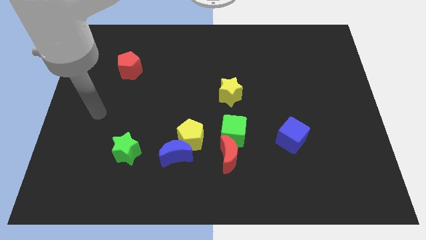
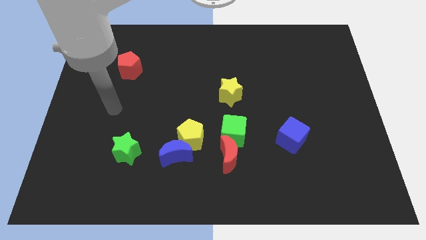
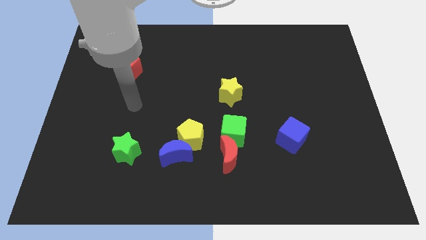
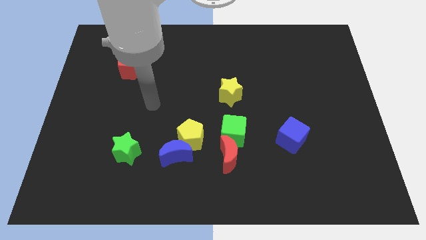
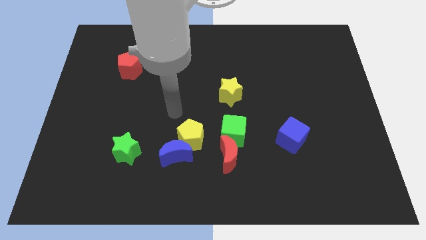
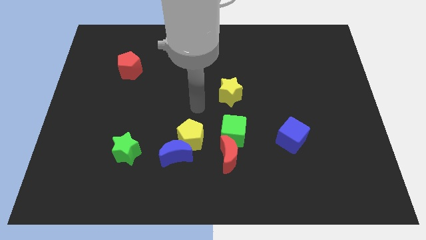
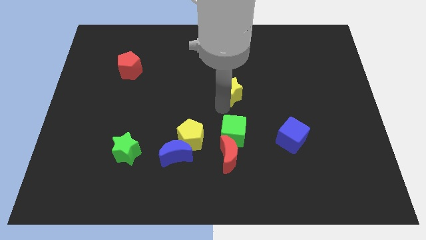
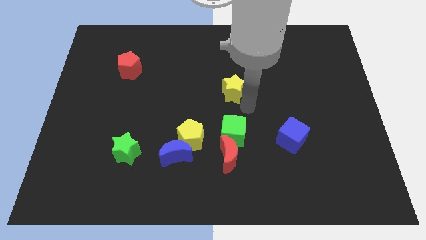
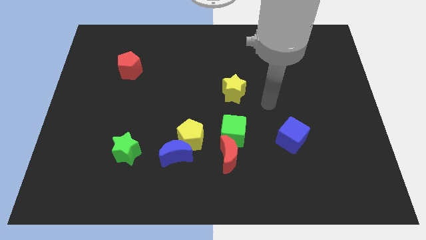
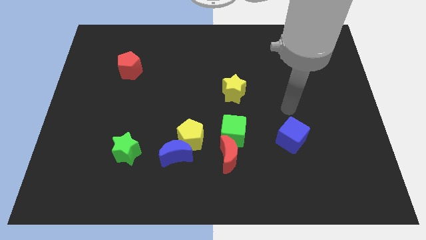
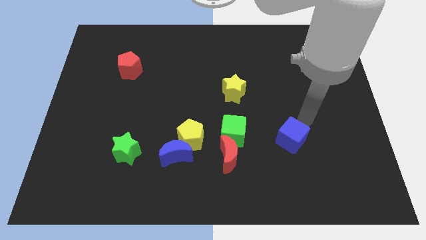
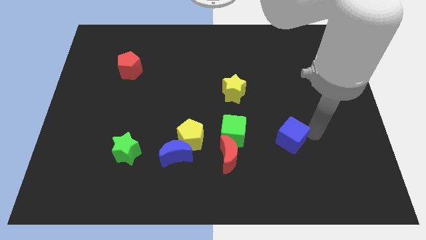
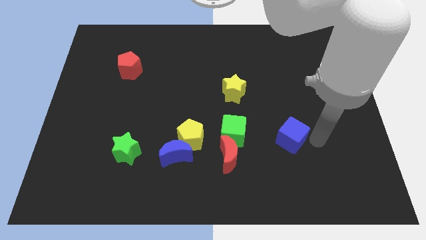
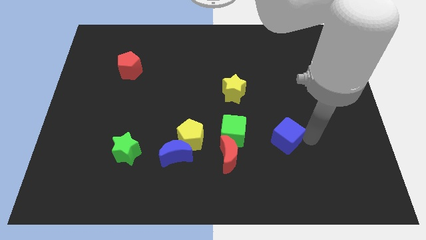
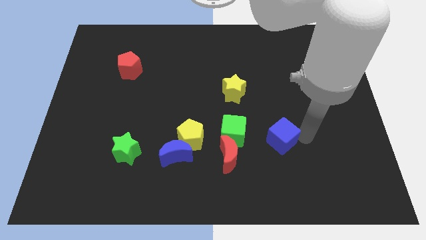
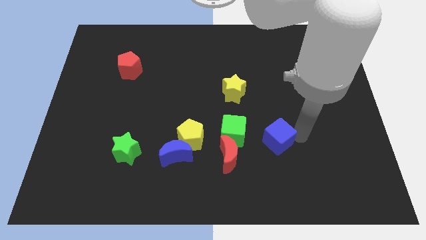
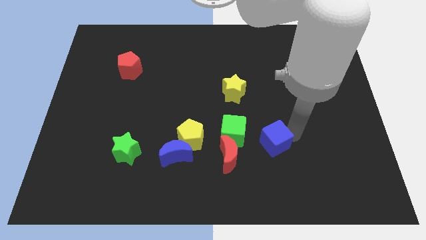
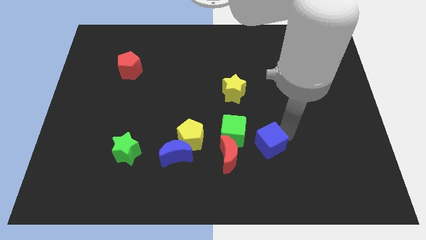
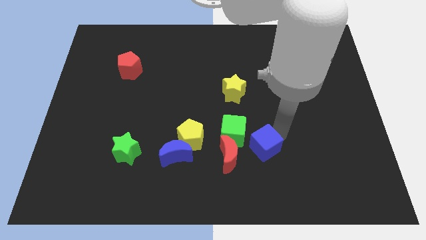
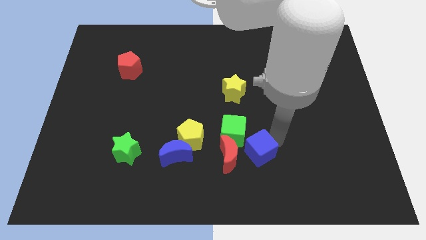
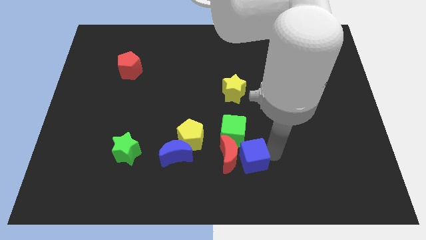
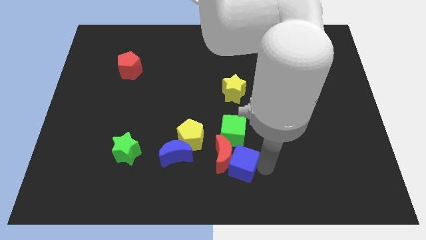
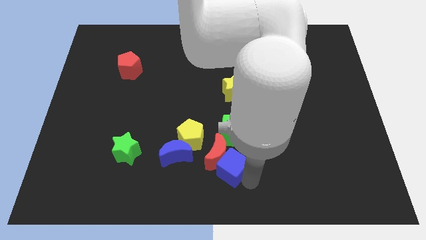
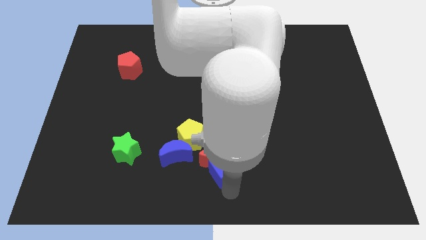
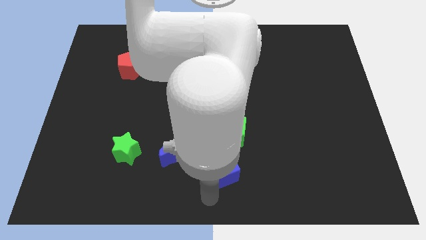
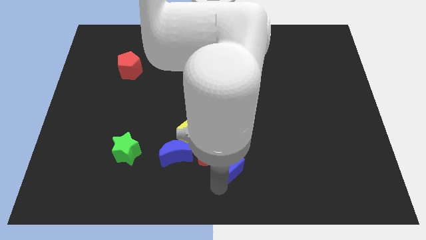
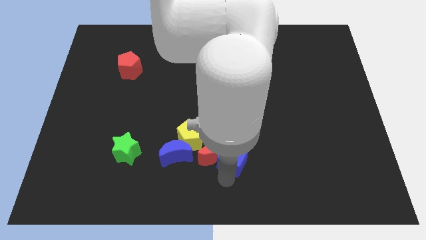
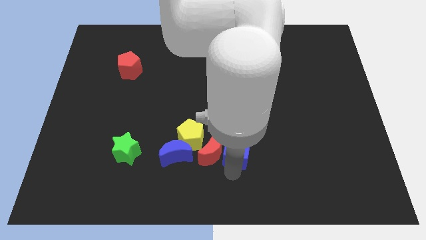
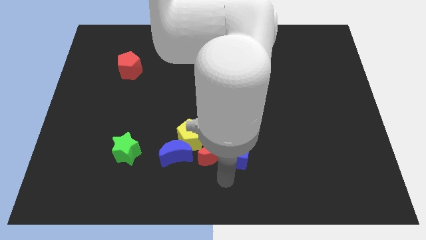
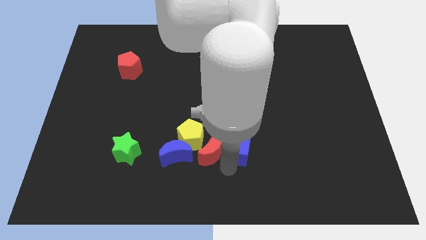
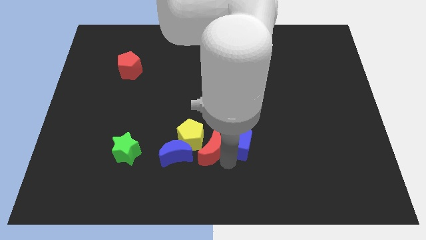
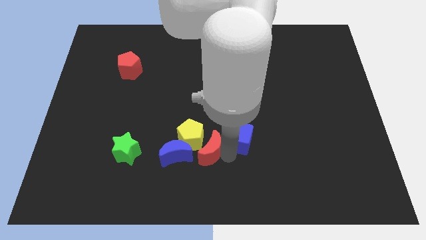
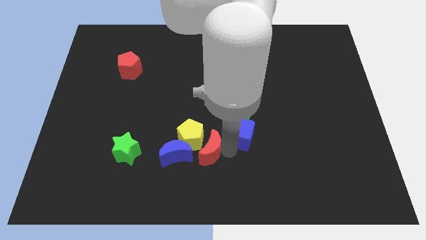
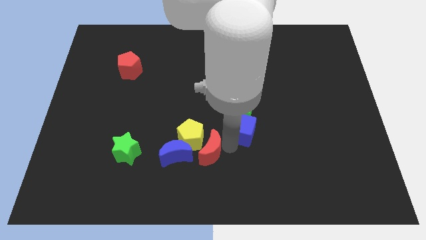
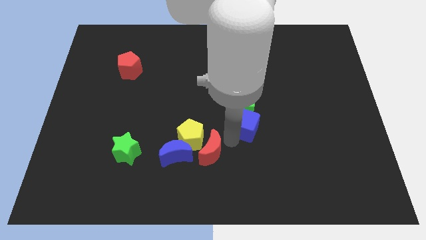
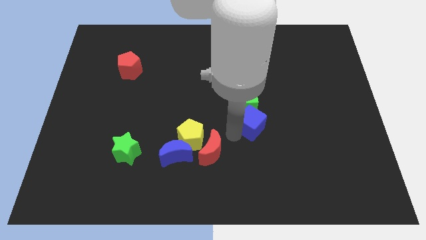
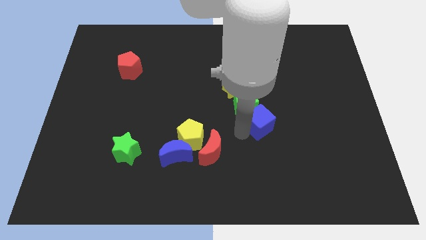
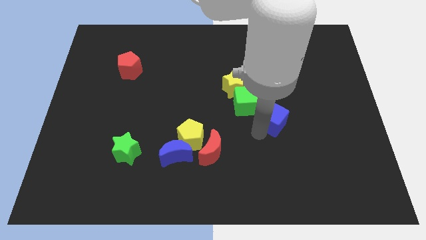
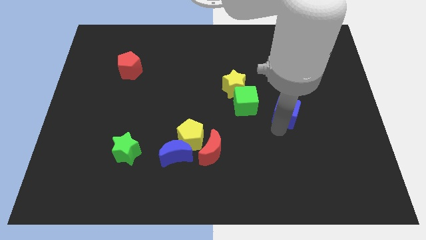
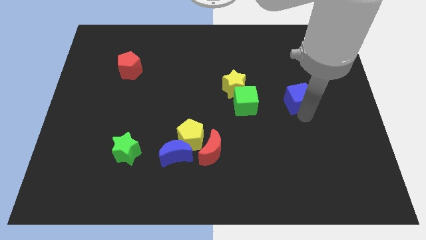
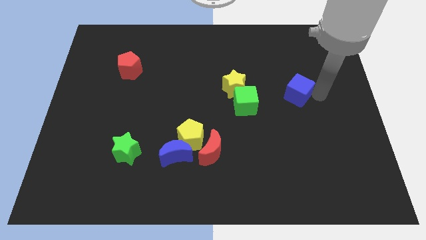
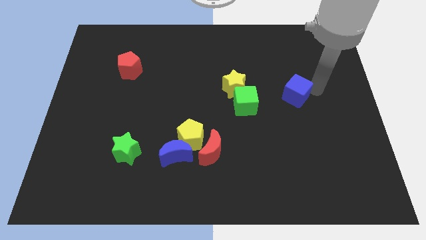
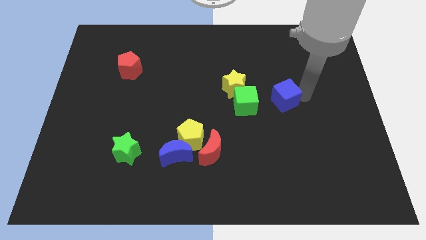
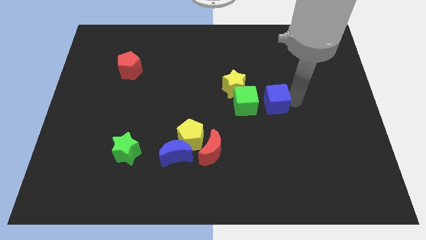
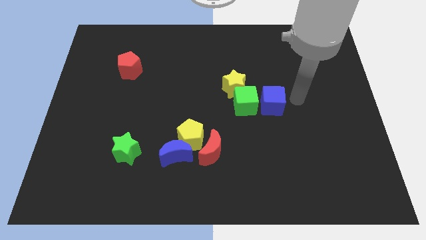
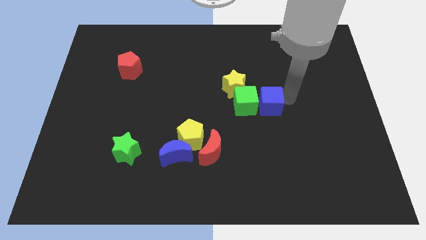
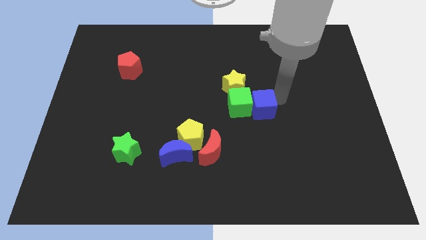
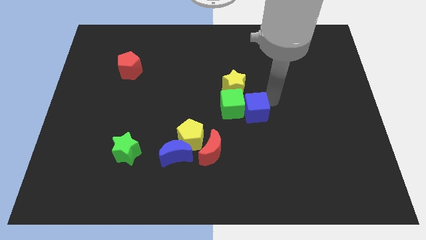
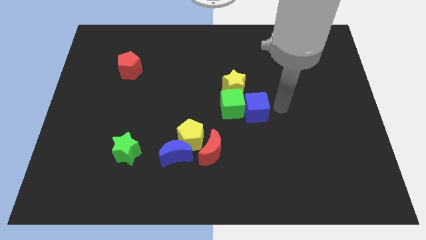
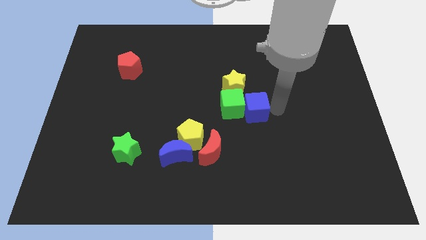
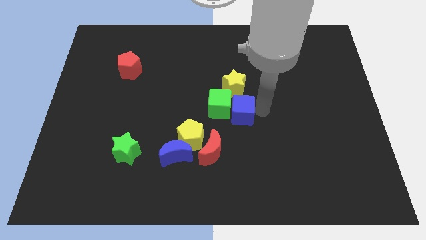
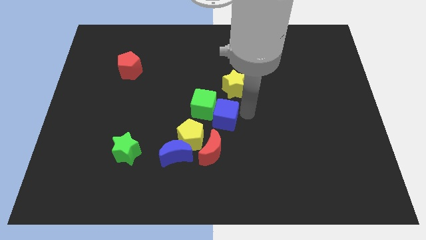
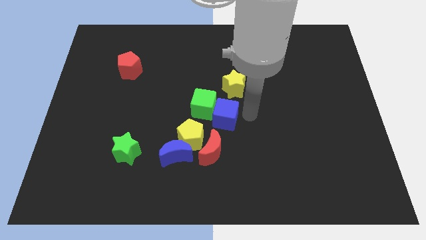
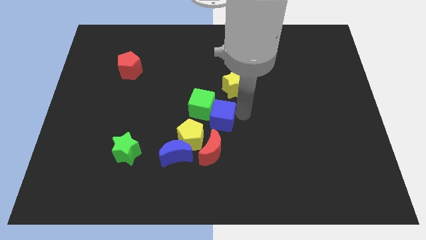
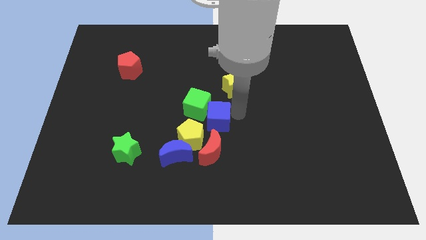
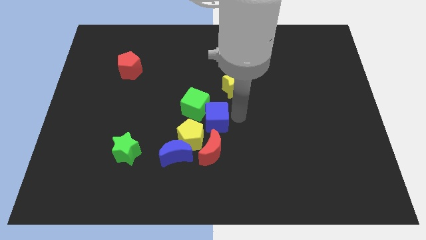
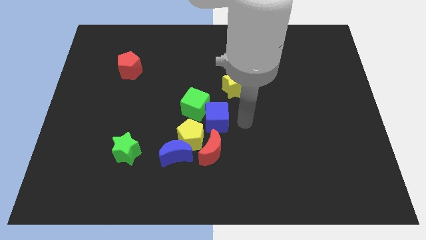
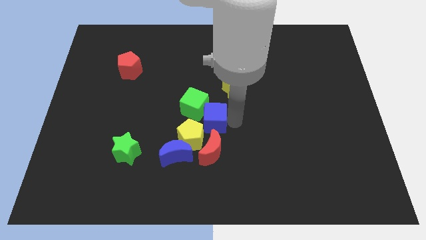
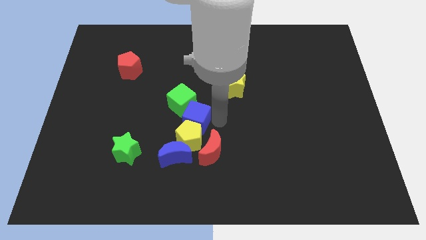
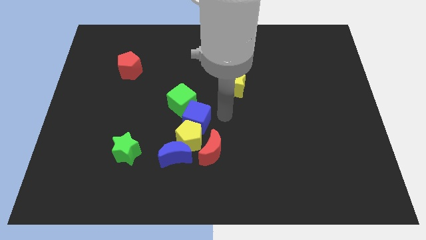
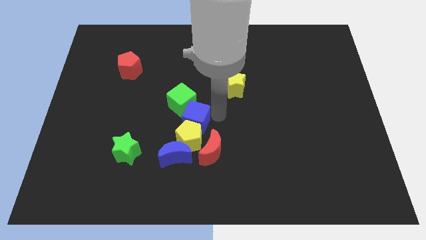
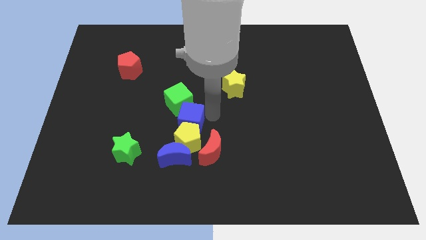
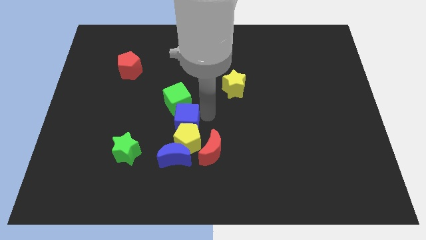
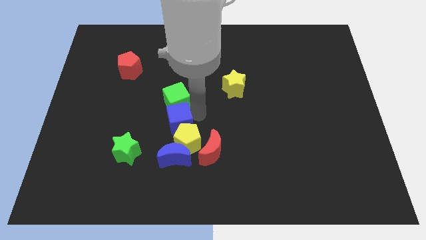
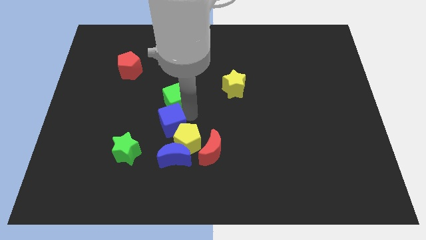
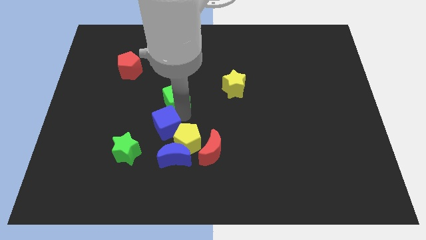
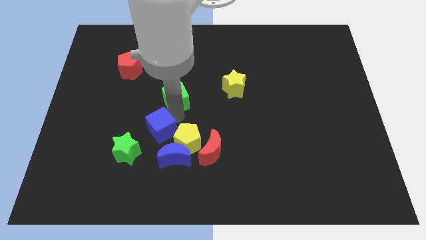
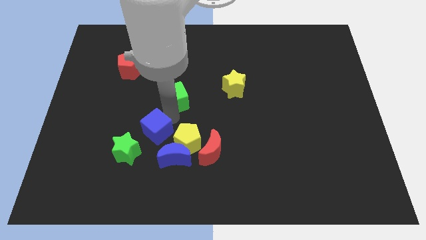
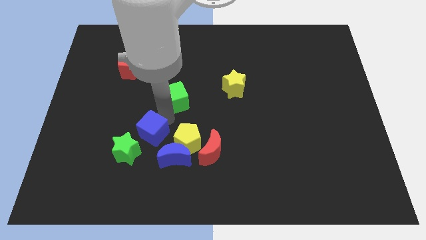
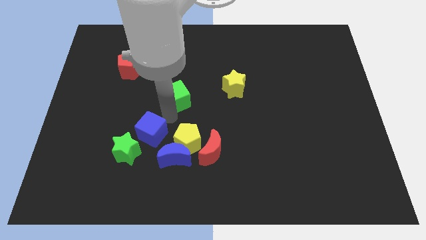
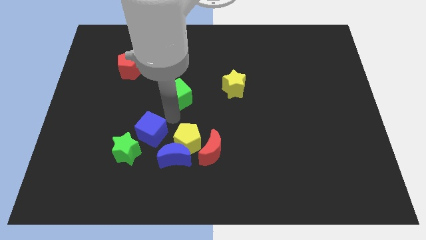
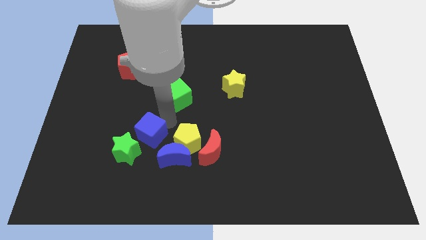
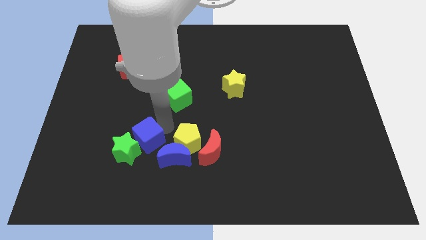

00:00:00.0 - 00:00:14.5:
slide the blue cube close to the green star

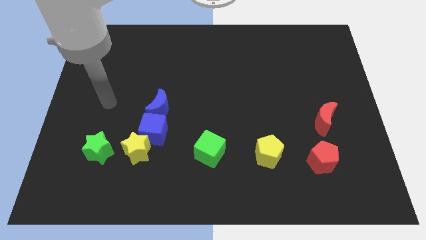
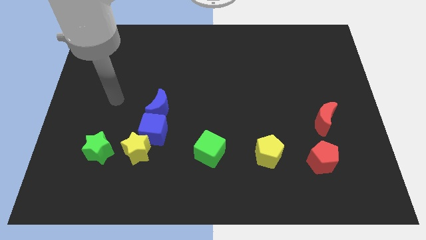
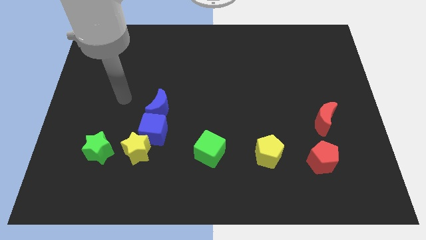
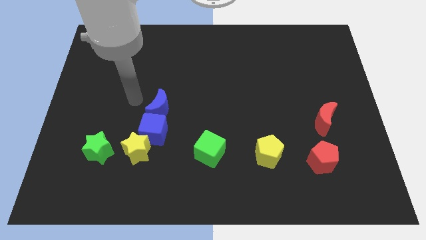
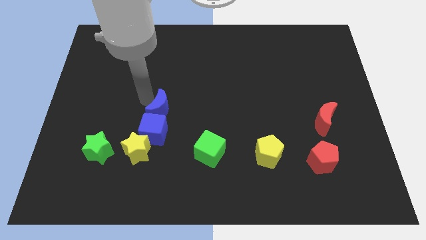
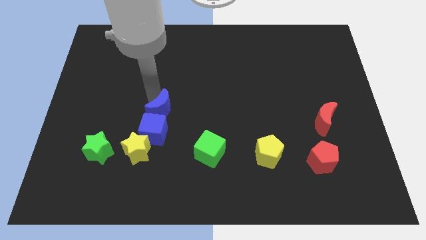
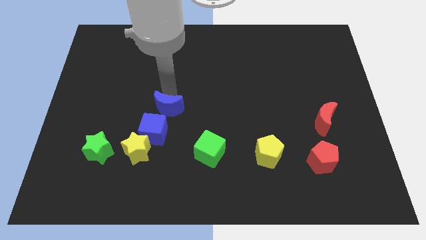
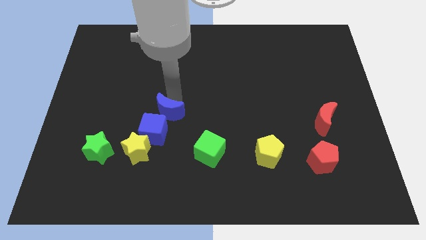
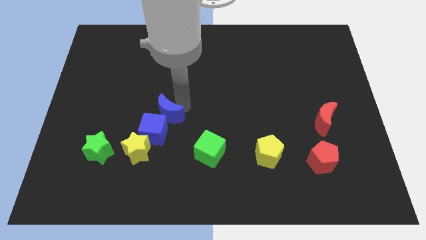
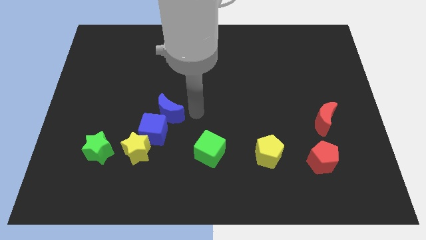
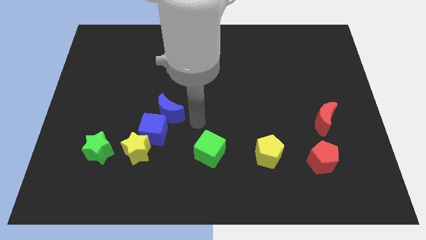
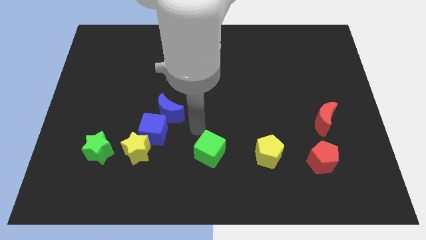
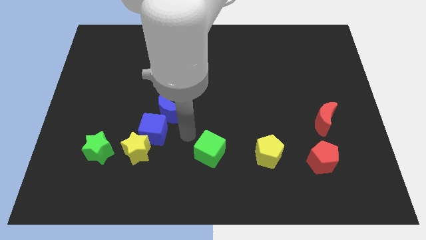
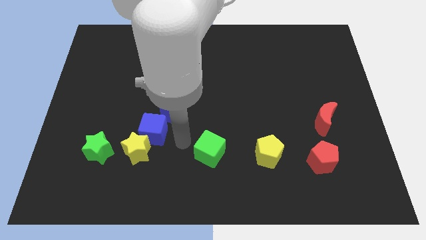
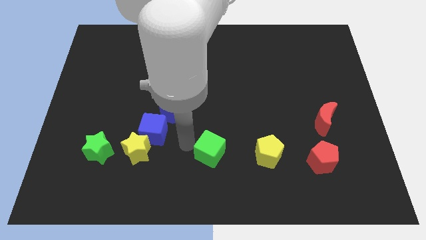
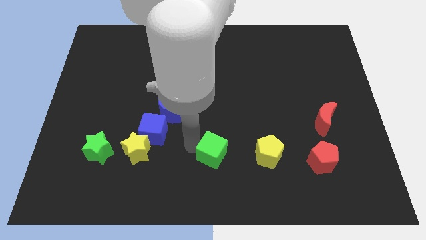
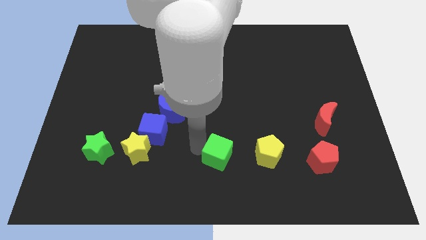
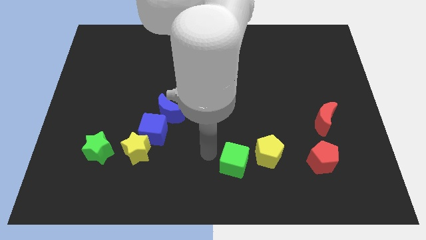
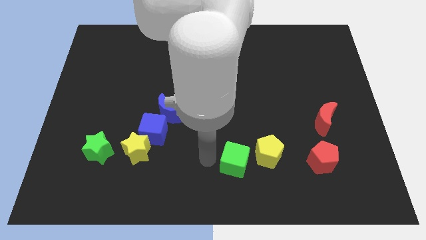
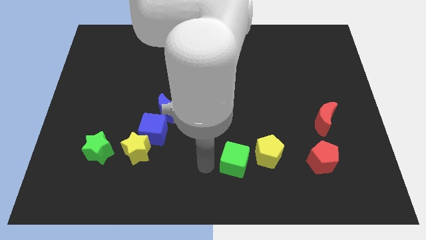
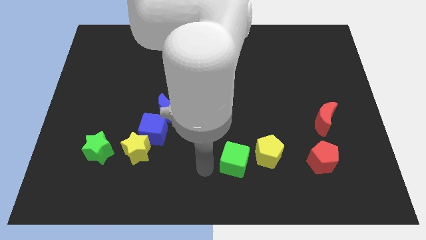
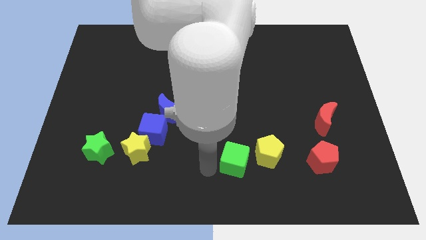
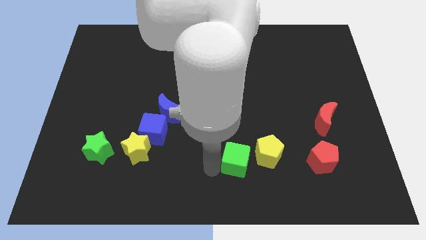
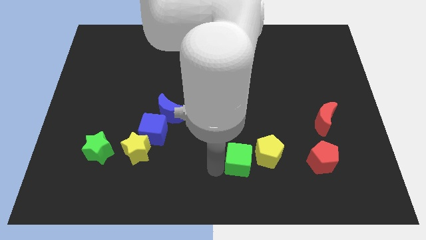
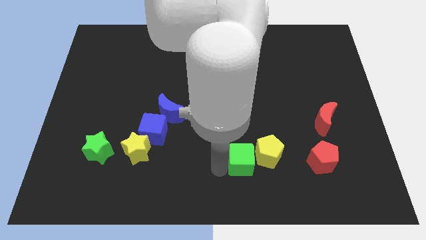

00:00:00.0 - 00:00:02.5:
move the green cube next to the yellow pentagon
